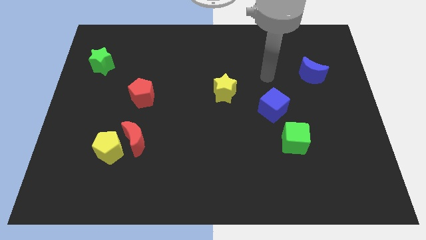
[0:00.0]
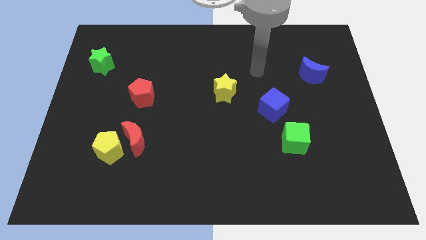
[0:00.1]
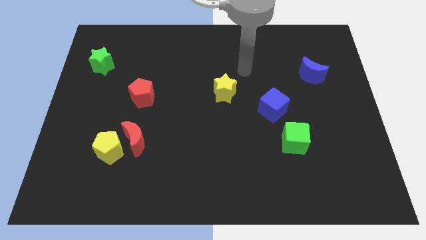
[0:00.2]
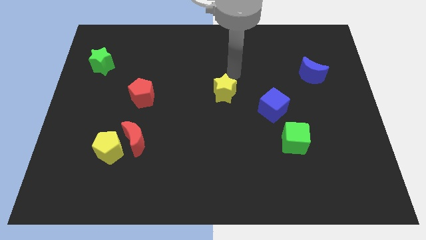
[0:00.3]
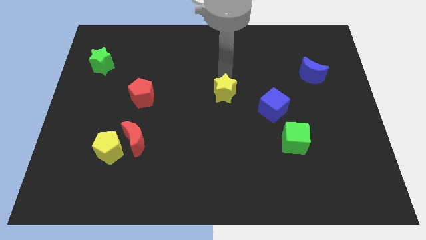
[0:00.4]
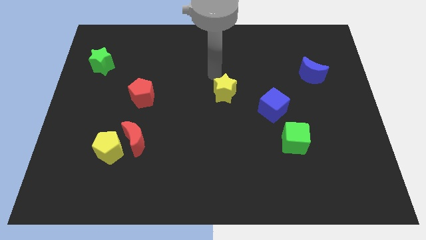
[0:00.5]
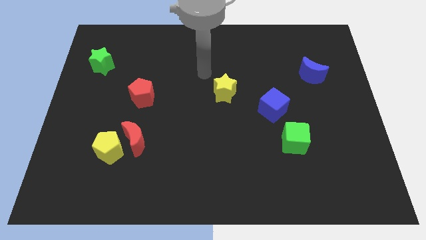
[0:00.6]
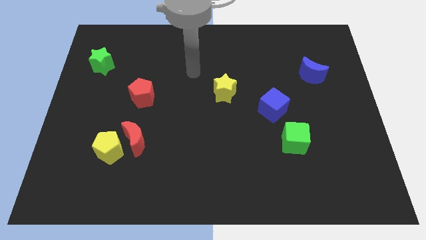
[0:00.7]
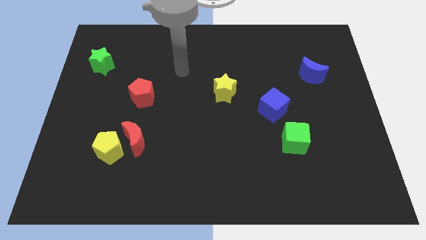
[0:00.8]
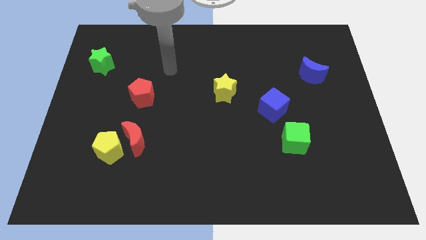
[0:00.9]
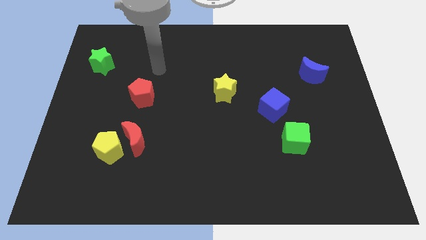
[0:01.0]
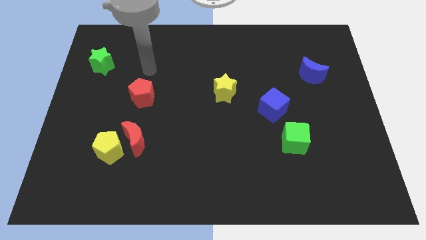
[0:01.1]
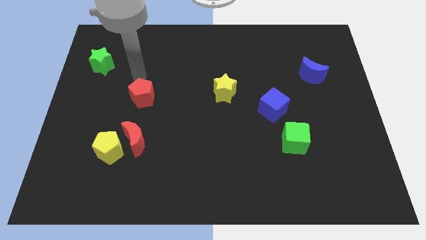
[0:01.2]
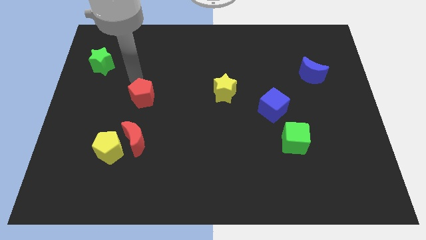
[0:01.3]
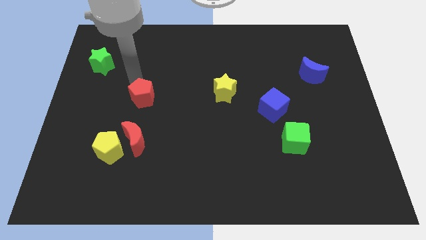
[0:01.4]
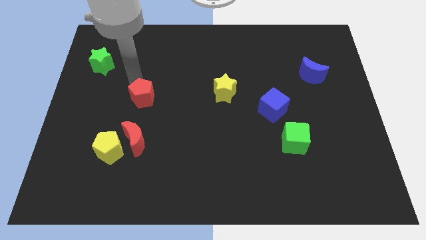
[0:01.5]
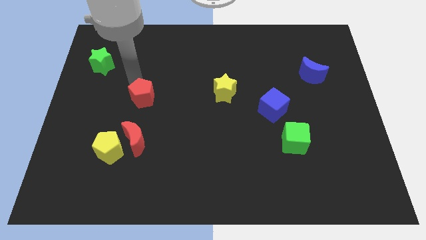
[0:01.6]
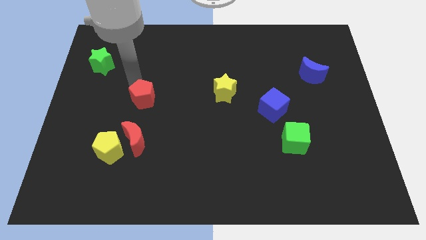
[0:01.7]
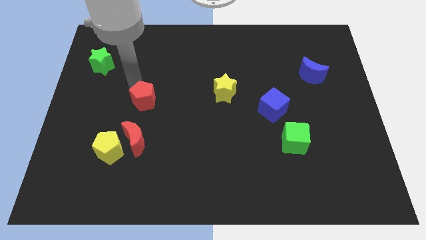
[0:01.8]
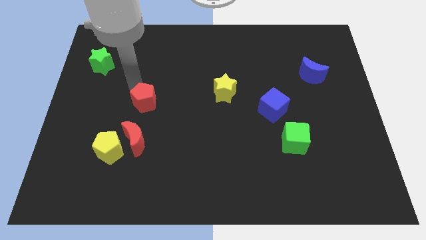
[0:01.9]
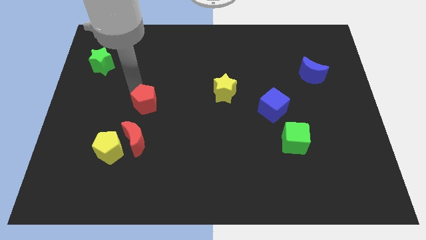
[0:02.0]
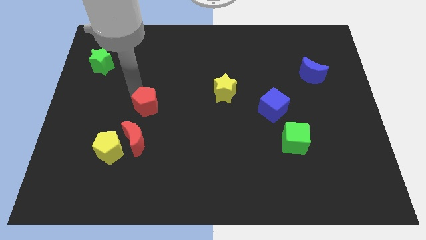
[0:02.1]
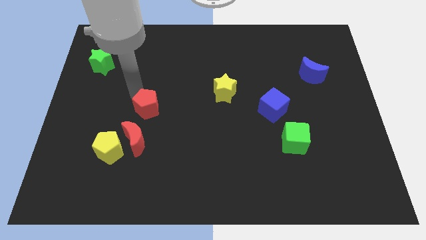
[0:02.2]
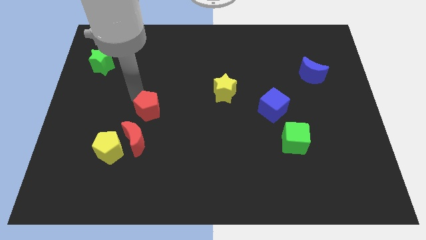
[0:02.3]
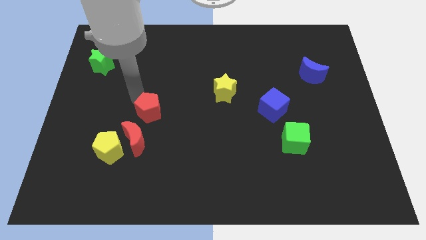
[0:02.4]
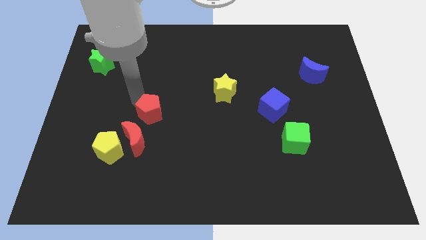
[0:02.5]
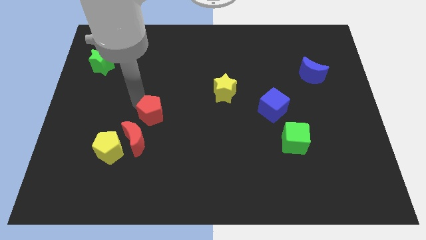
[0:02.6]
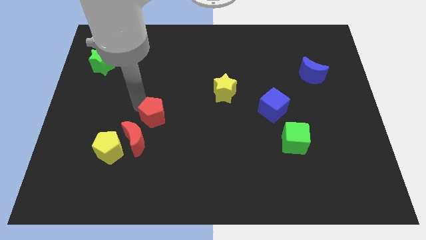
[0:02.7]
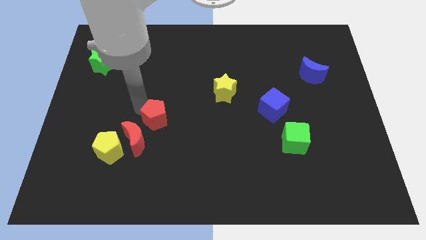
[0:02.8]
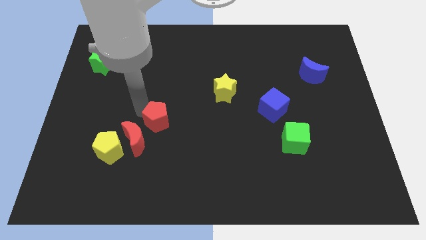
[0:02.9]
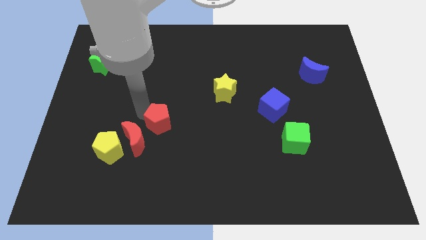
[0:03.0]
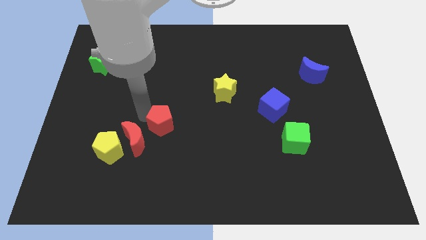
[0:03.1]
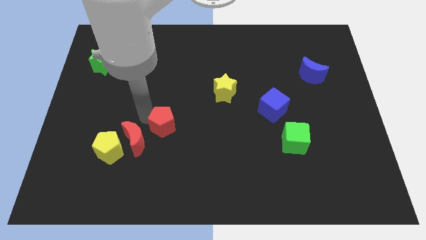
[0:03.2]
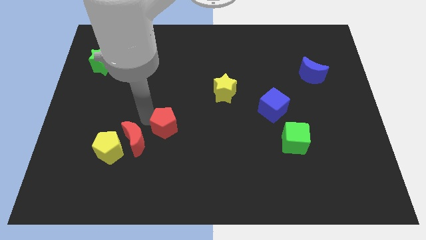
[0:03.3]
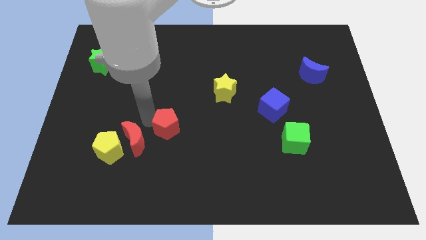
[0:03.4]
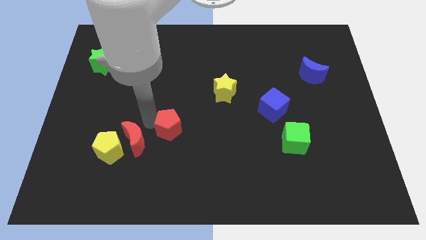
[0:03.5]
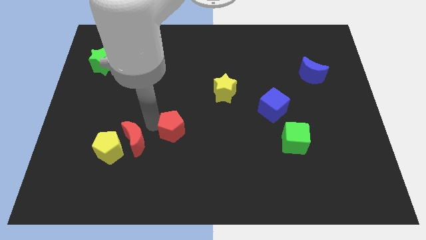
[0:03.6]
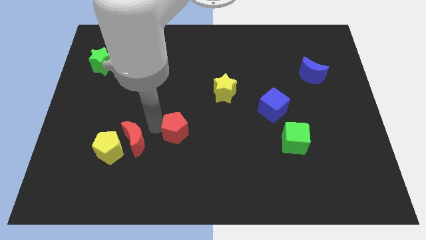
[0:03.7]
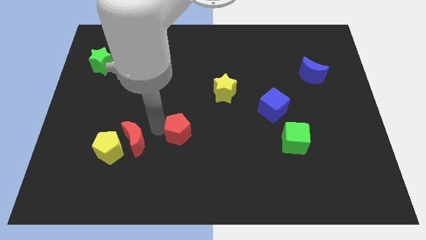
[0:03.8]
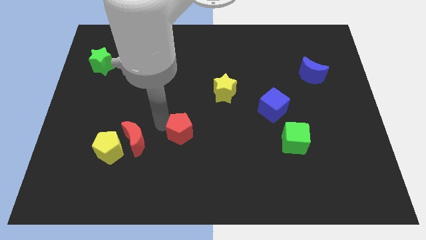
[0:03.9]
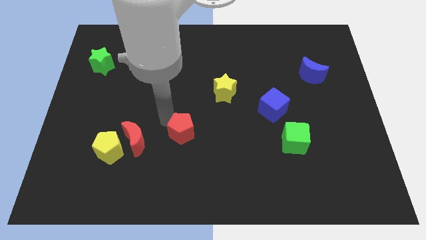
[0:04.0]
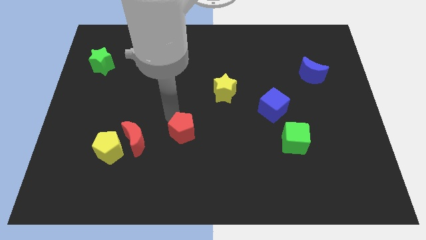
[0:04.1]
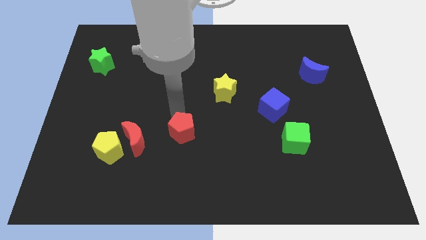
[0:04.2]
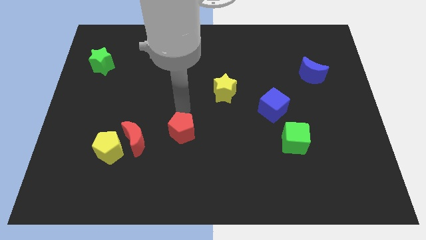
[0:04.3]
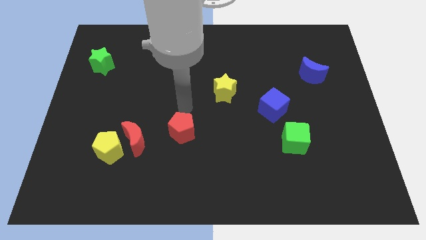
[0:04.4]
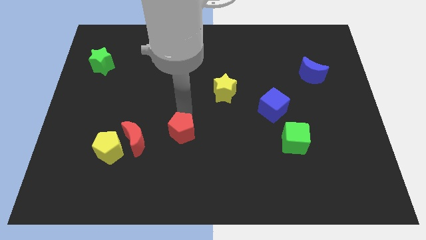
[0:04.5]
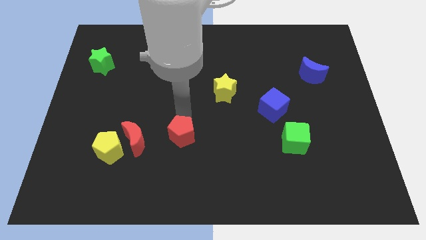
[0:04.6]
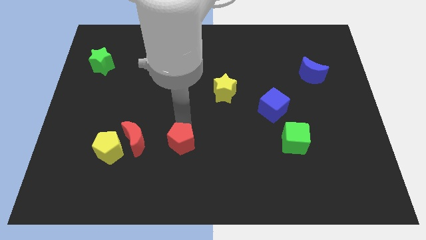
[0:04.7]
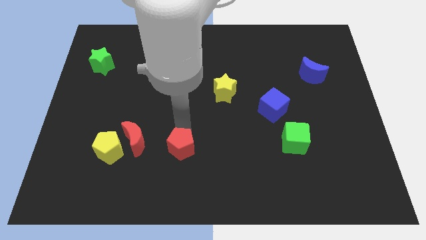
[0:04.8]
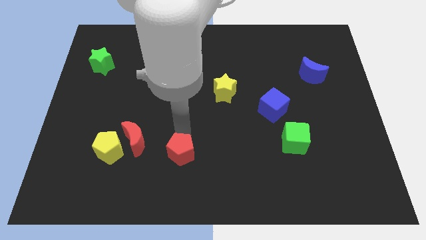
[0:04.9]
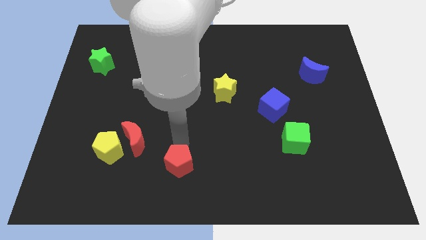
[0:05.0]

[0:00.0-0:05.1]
push the red pentagon to the bottom

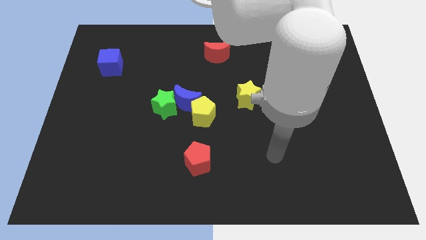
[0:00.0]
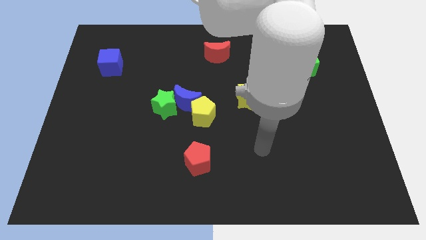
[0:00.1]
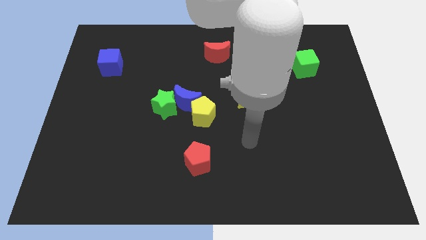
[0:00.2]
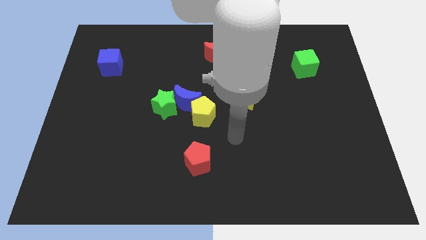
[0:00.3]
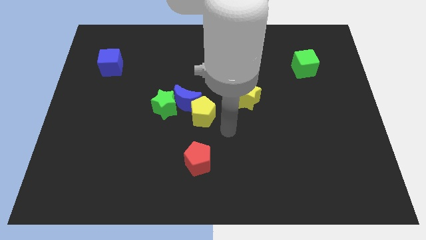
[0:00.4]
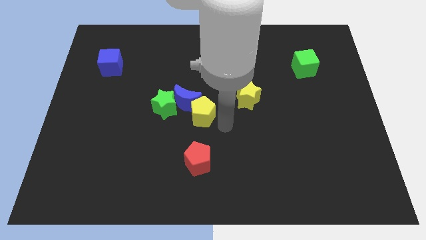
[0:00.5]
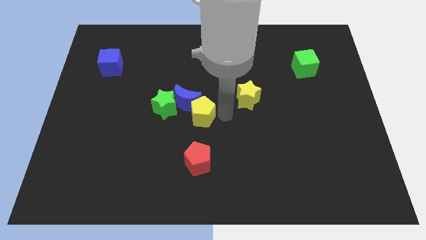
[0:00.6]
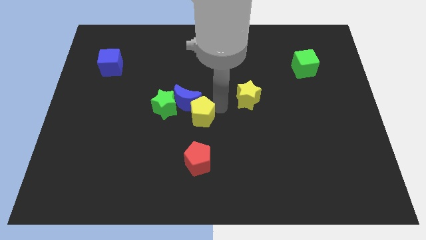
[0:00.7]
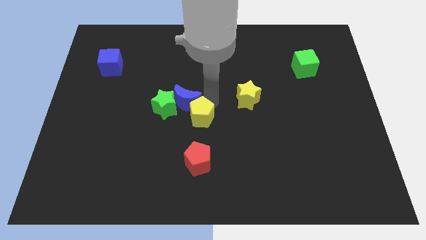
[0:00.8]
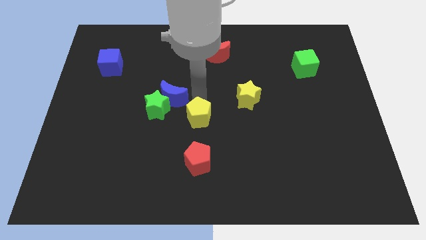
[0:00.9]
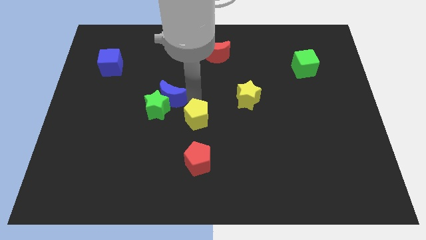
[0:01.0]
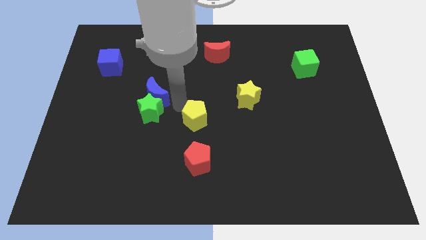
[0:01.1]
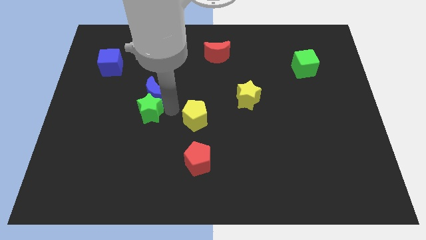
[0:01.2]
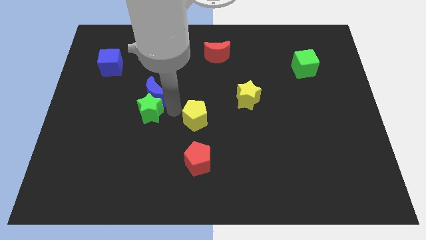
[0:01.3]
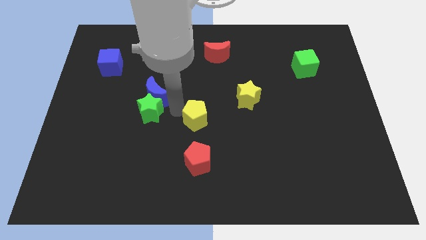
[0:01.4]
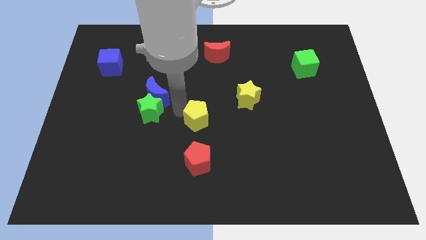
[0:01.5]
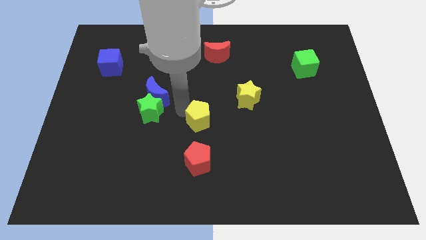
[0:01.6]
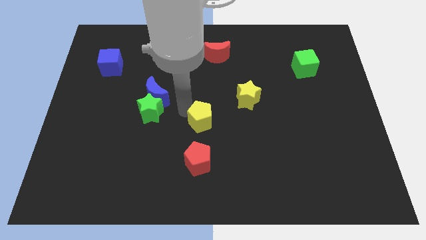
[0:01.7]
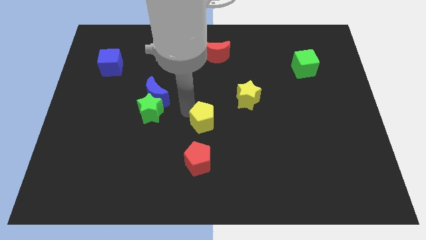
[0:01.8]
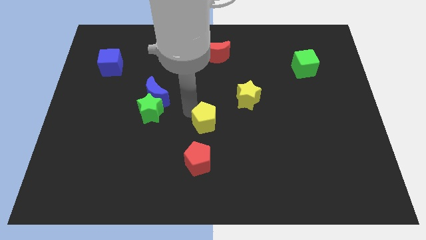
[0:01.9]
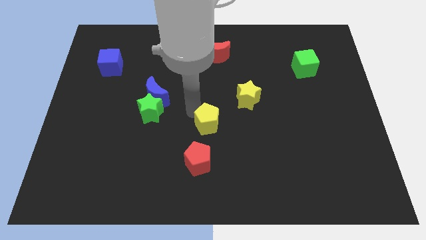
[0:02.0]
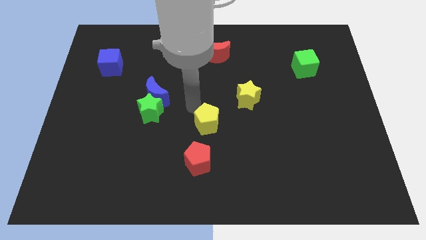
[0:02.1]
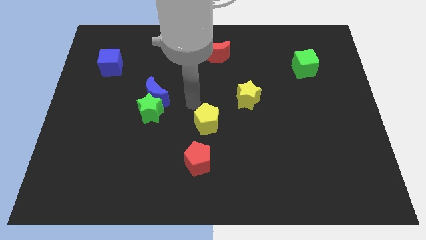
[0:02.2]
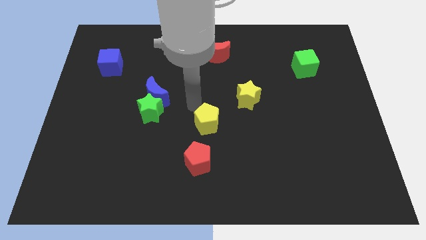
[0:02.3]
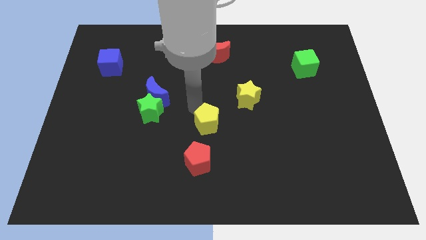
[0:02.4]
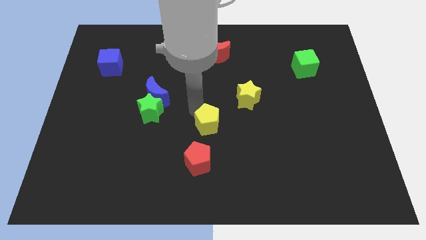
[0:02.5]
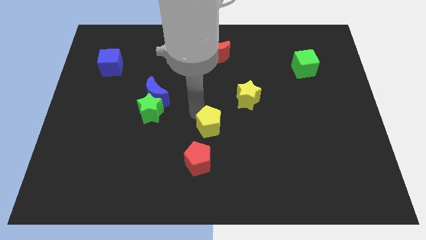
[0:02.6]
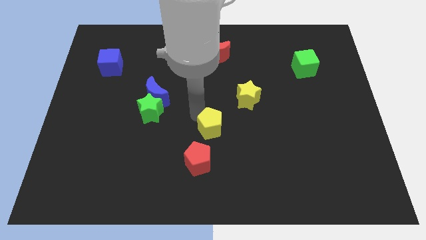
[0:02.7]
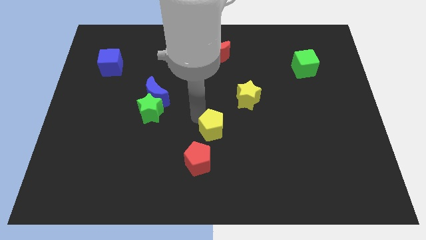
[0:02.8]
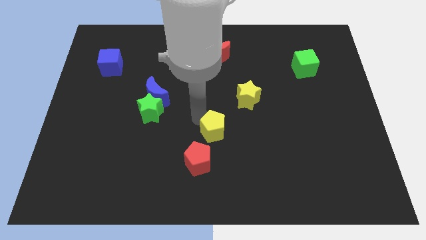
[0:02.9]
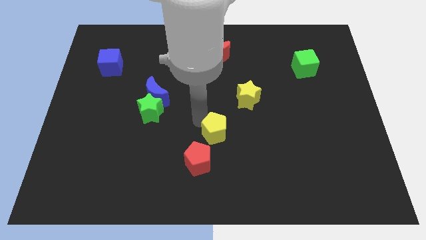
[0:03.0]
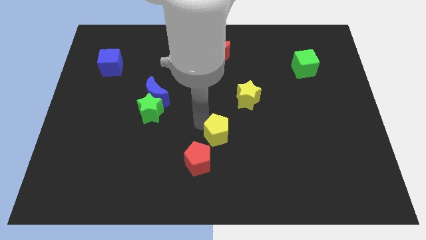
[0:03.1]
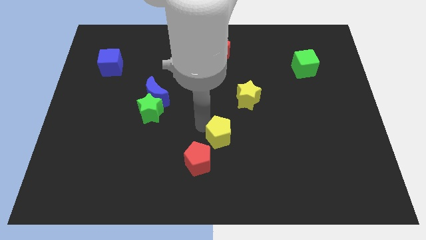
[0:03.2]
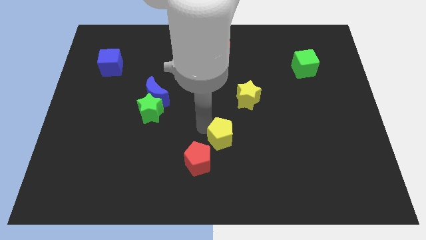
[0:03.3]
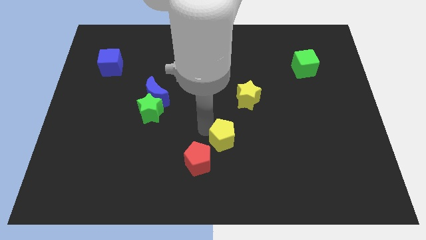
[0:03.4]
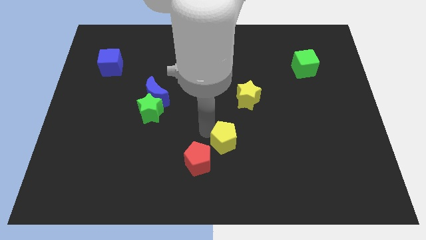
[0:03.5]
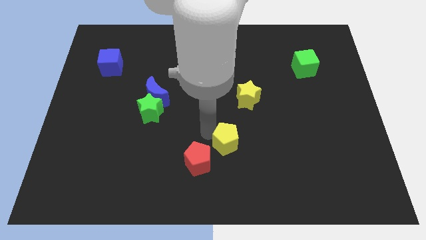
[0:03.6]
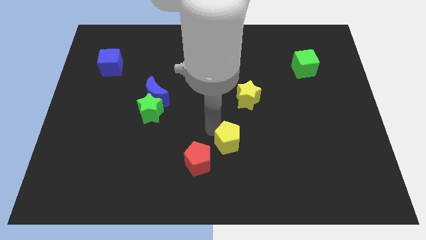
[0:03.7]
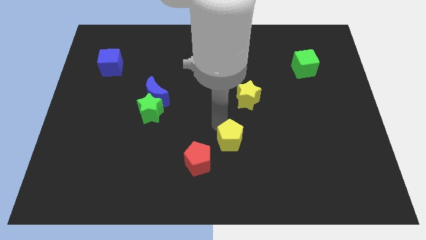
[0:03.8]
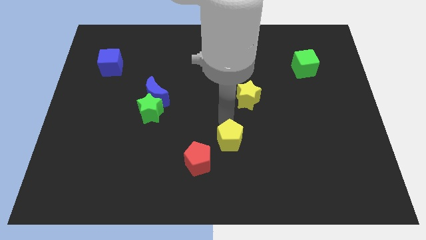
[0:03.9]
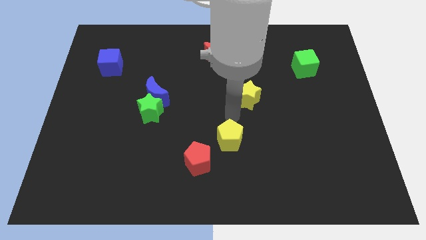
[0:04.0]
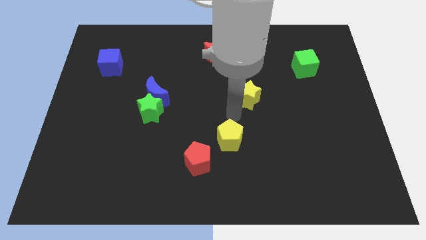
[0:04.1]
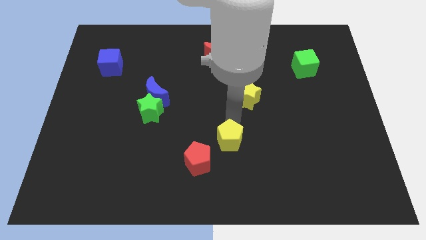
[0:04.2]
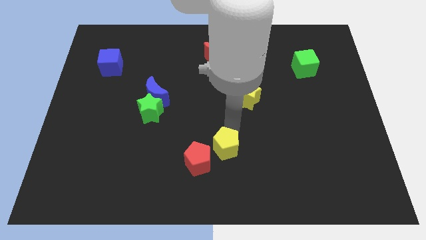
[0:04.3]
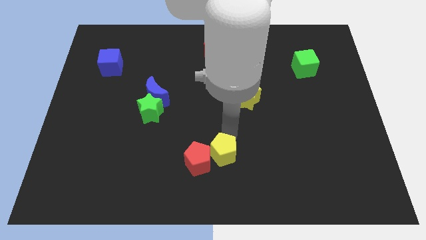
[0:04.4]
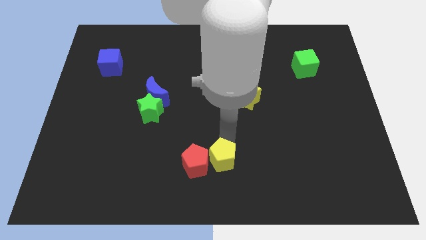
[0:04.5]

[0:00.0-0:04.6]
move the yellow pentagon to the bottom
